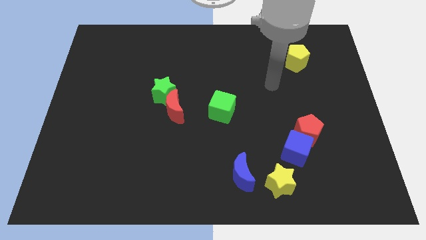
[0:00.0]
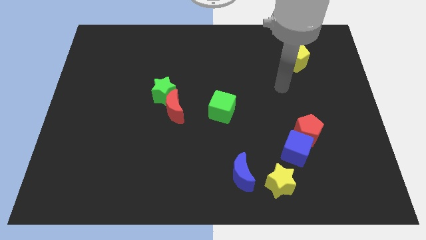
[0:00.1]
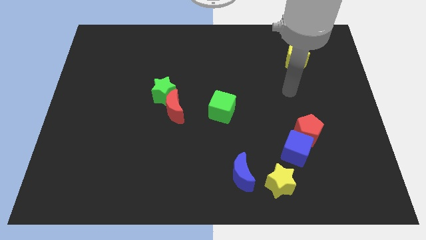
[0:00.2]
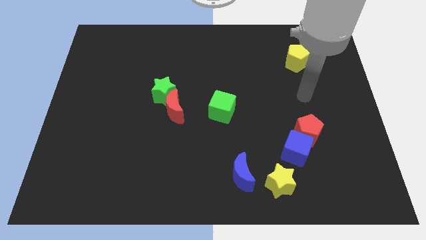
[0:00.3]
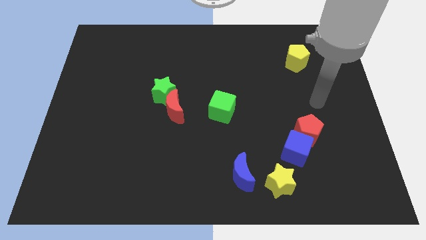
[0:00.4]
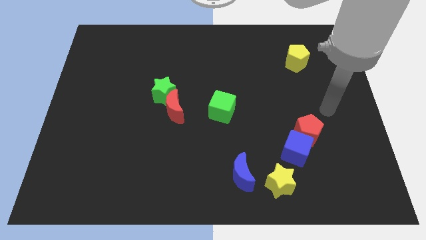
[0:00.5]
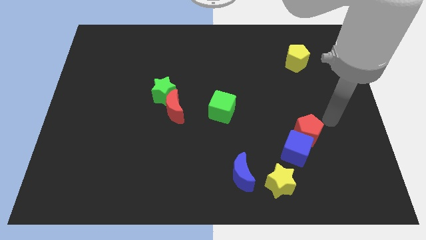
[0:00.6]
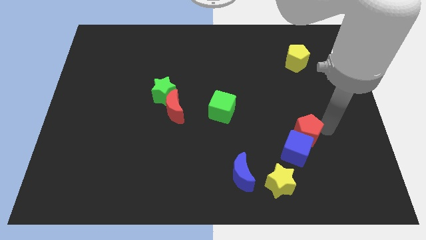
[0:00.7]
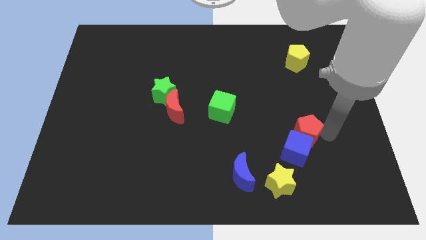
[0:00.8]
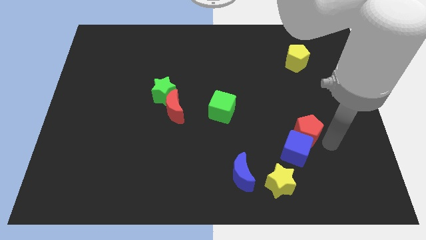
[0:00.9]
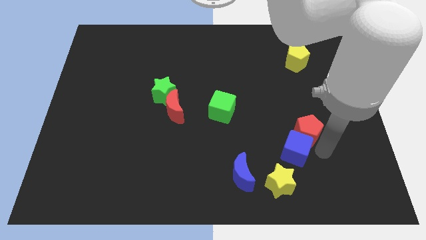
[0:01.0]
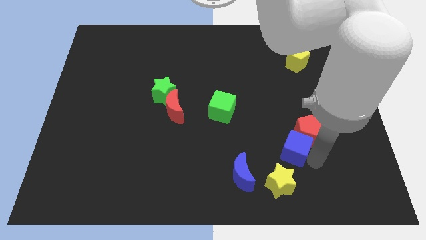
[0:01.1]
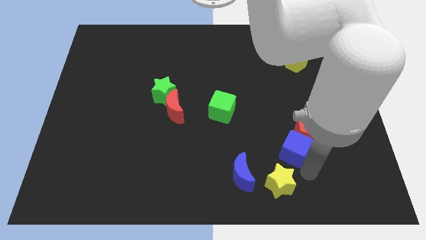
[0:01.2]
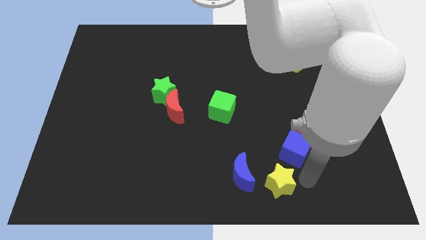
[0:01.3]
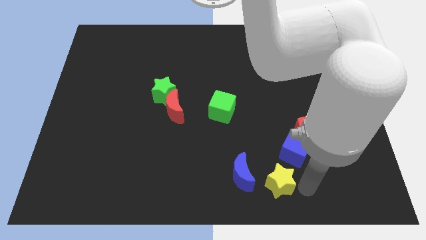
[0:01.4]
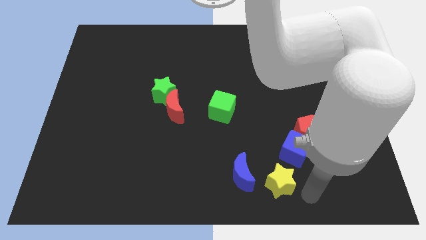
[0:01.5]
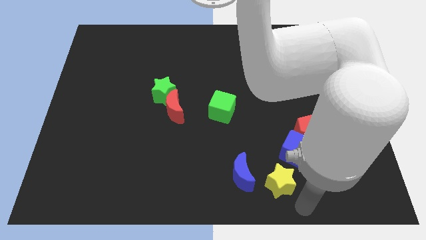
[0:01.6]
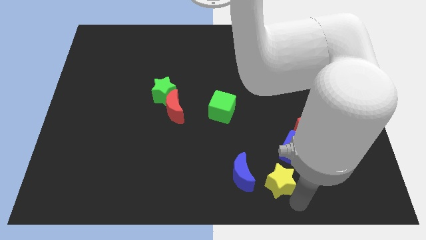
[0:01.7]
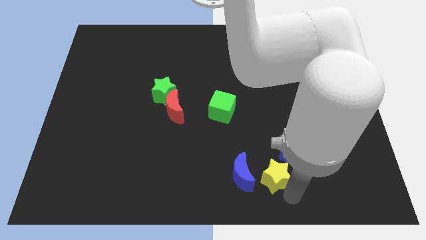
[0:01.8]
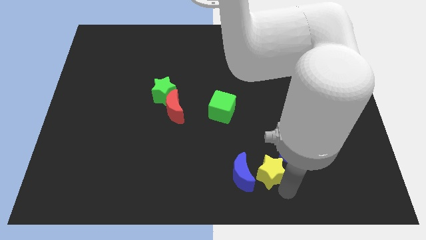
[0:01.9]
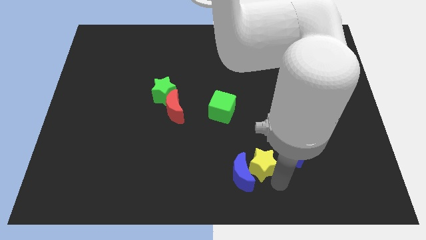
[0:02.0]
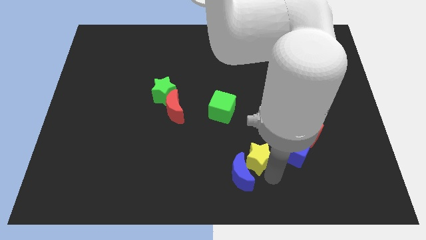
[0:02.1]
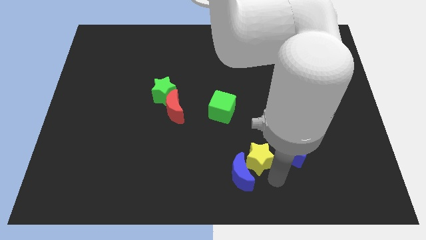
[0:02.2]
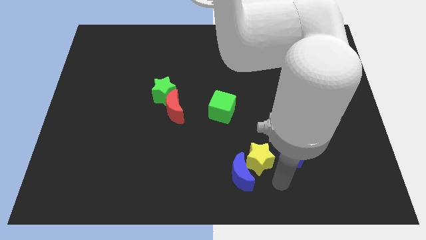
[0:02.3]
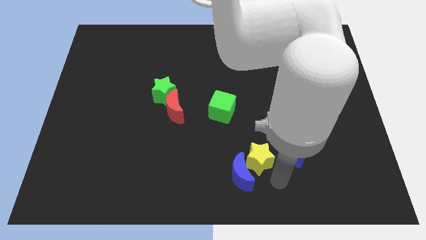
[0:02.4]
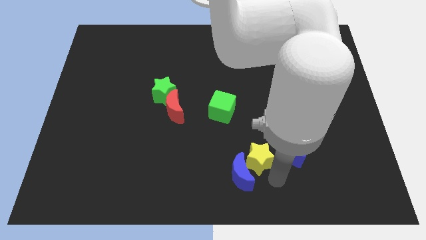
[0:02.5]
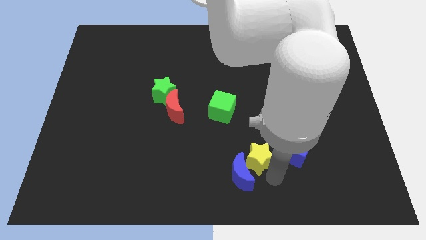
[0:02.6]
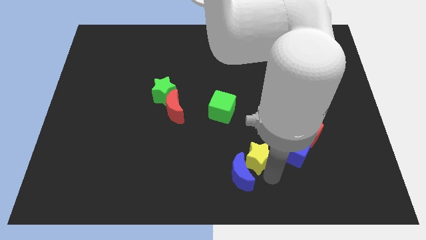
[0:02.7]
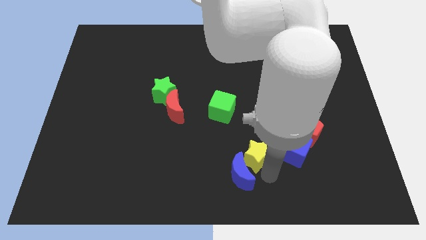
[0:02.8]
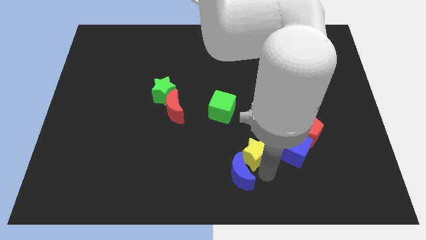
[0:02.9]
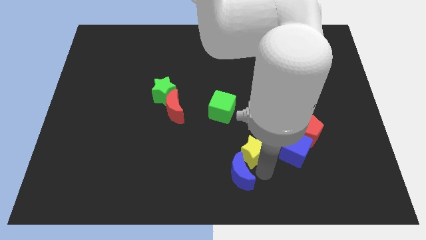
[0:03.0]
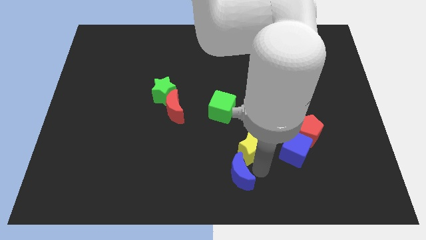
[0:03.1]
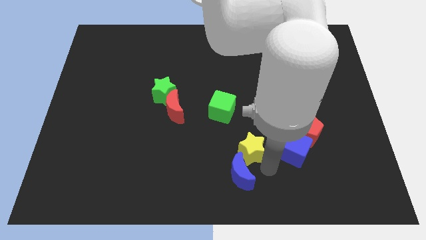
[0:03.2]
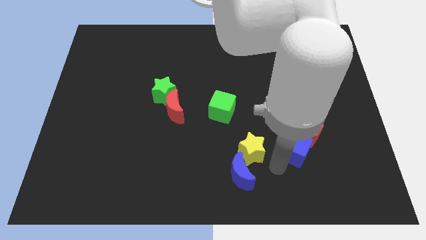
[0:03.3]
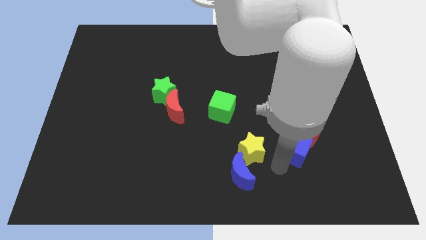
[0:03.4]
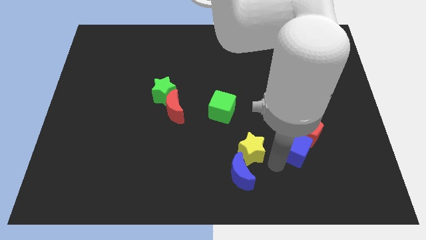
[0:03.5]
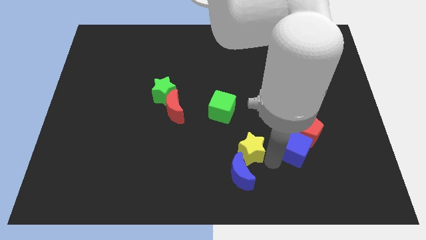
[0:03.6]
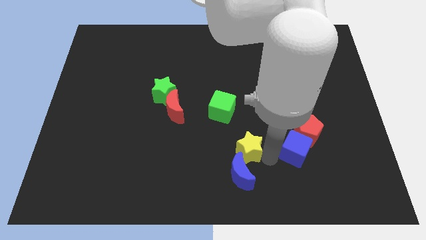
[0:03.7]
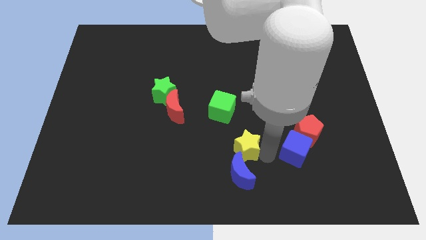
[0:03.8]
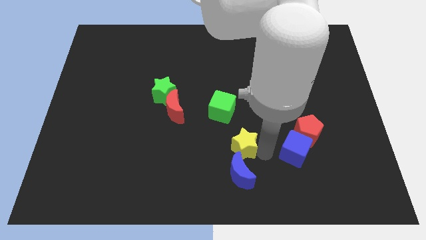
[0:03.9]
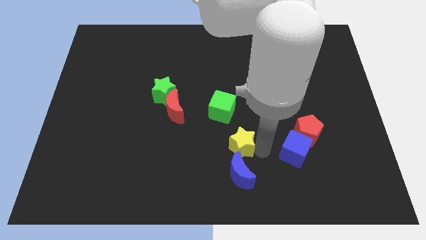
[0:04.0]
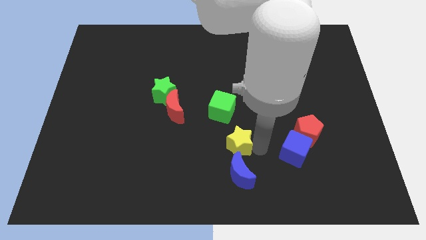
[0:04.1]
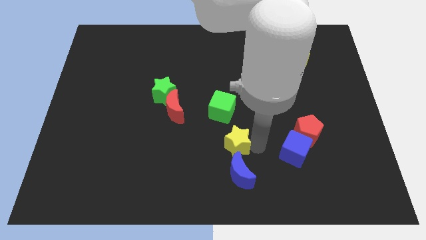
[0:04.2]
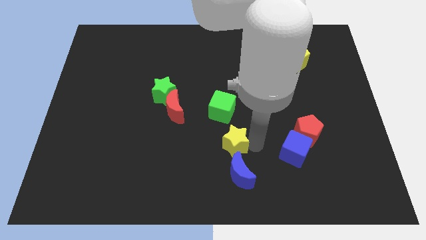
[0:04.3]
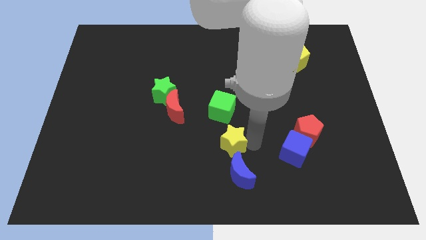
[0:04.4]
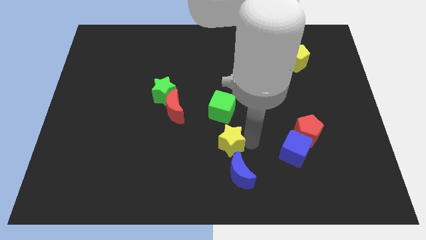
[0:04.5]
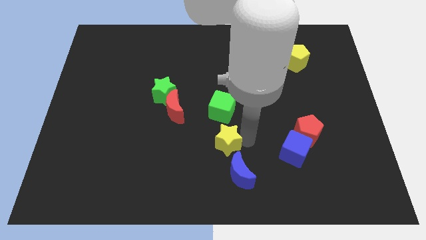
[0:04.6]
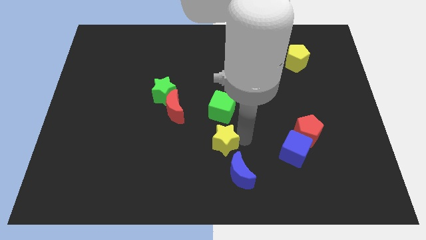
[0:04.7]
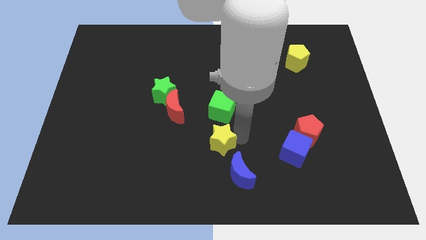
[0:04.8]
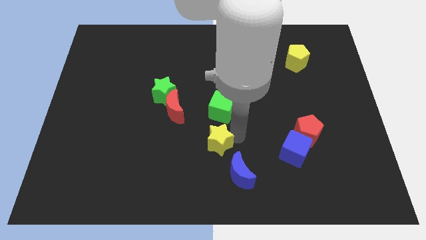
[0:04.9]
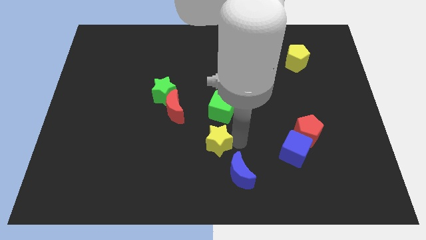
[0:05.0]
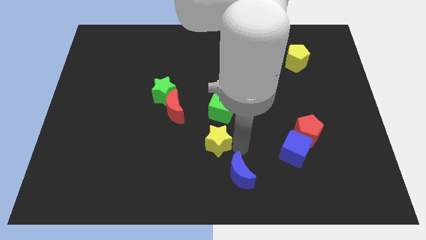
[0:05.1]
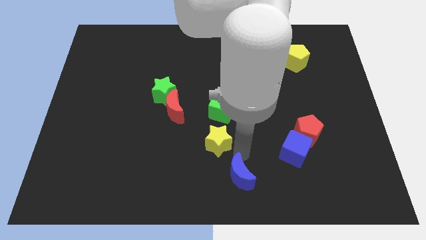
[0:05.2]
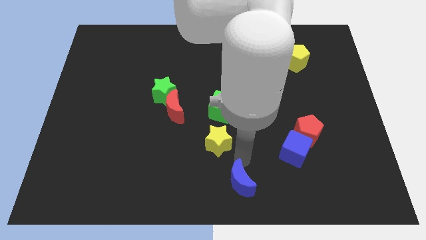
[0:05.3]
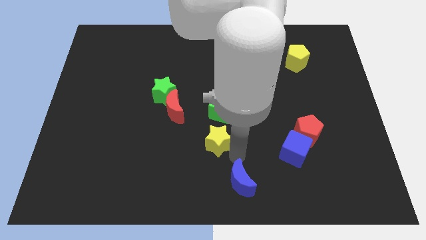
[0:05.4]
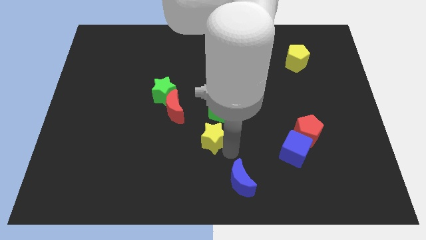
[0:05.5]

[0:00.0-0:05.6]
move the yellow star to the bottom left side of the green cube

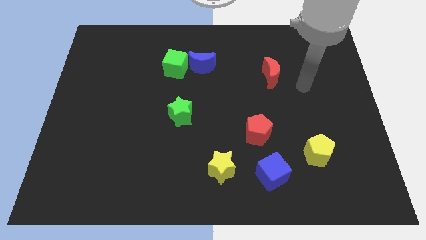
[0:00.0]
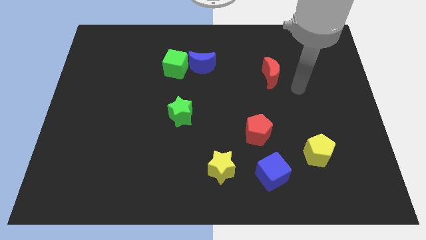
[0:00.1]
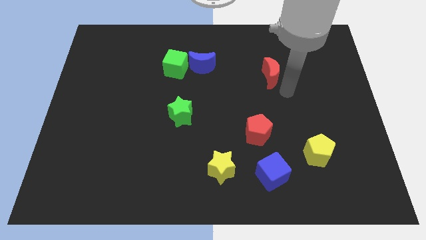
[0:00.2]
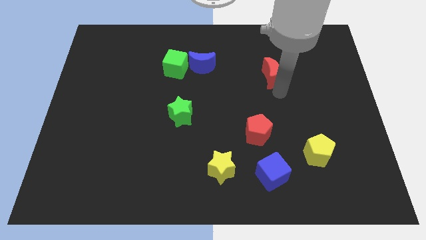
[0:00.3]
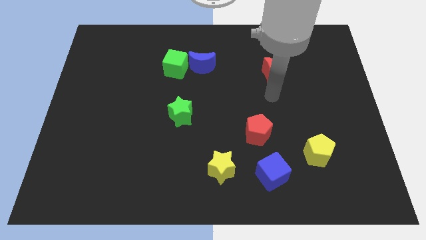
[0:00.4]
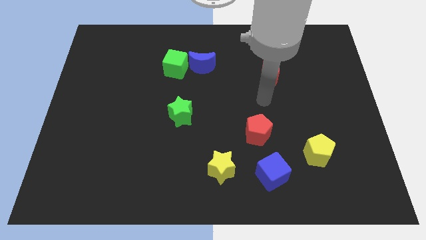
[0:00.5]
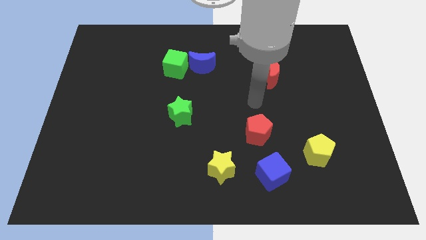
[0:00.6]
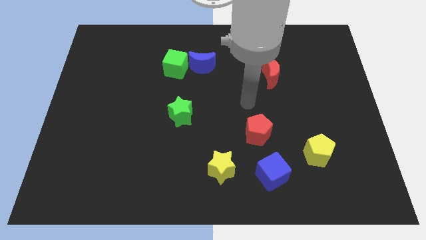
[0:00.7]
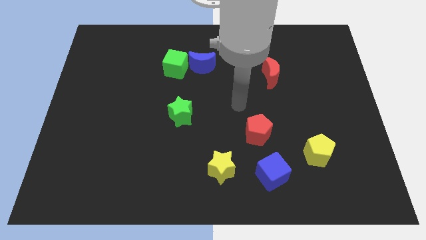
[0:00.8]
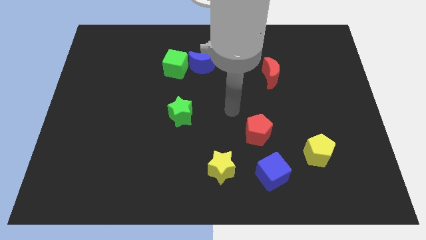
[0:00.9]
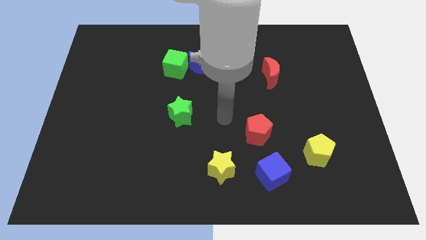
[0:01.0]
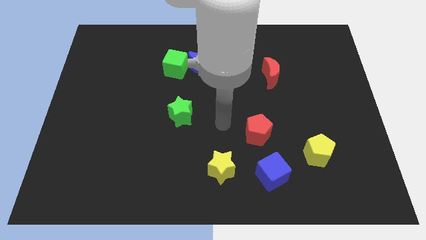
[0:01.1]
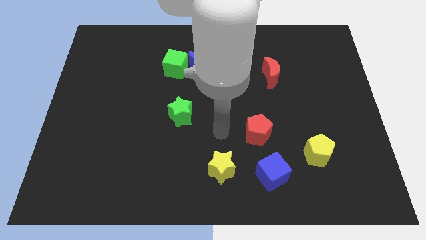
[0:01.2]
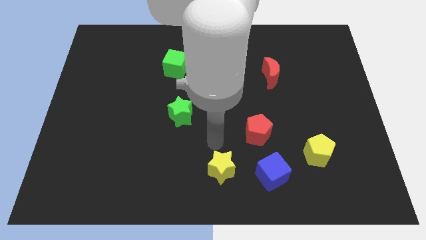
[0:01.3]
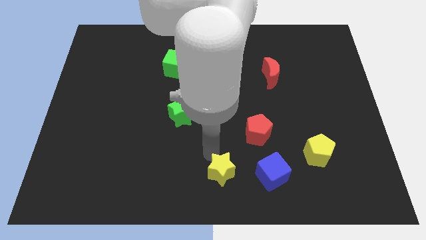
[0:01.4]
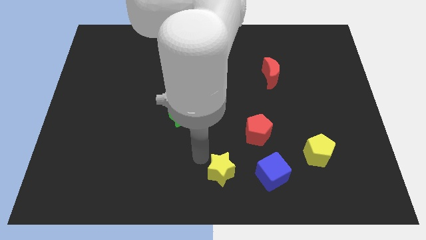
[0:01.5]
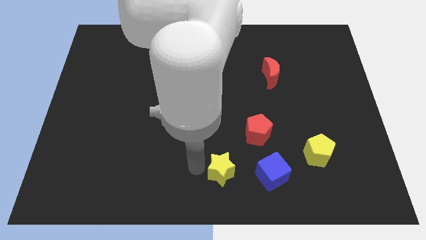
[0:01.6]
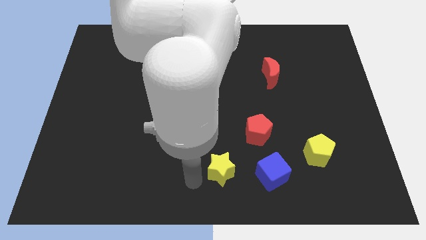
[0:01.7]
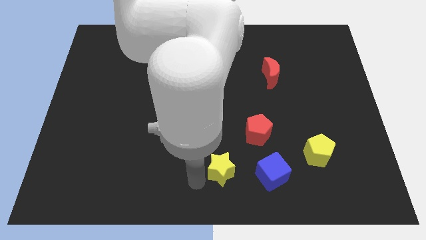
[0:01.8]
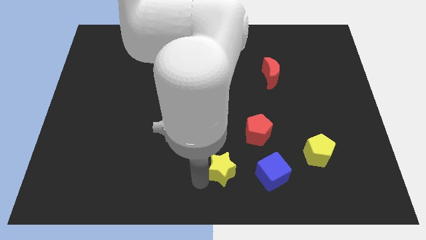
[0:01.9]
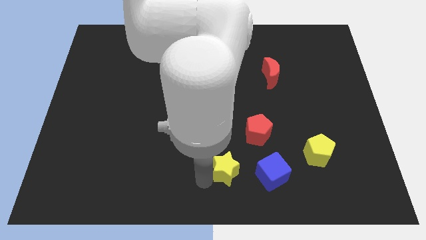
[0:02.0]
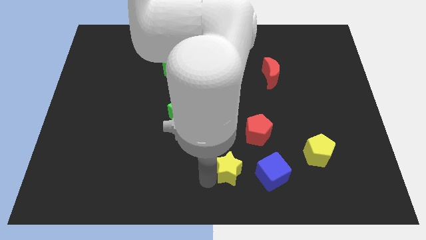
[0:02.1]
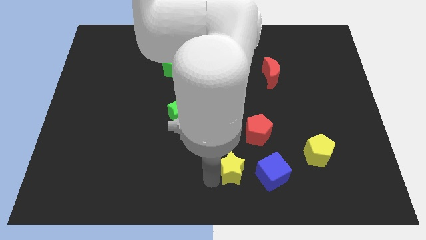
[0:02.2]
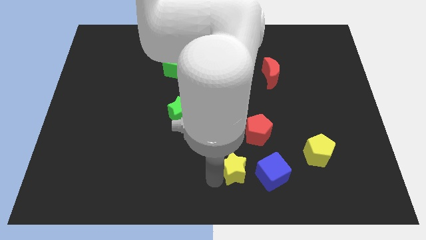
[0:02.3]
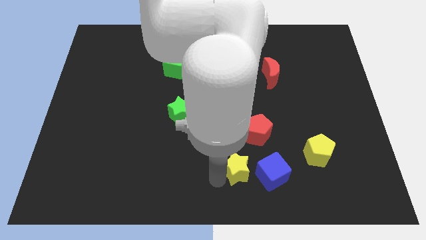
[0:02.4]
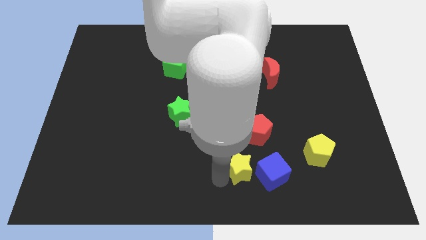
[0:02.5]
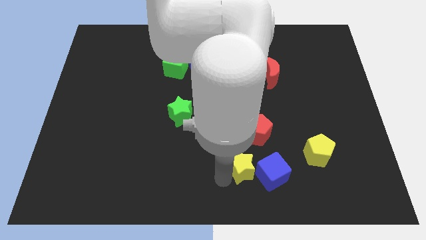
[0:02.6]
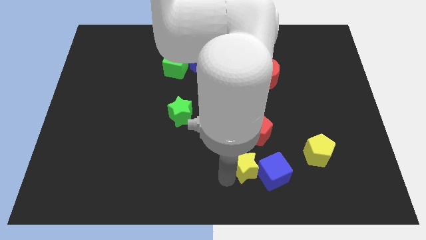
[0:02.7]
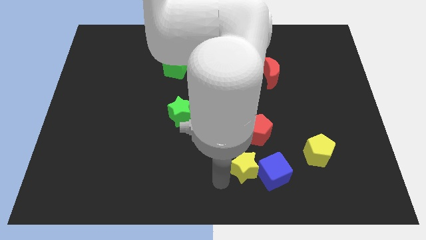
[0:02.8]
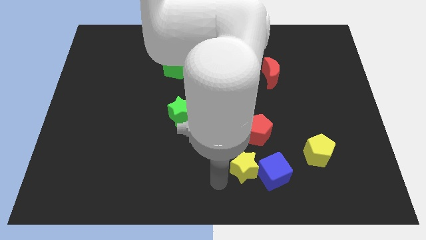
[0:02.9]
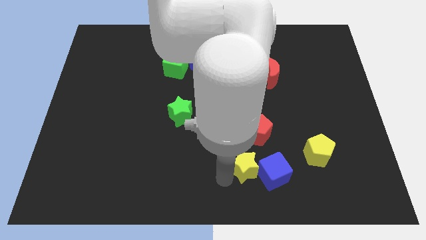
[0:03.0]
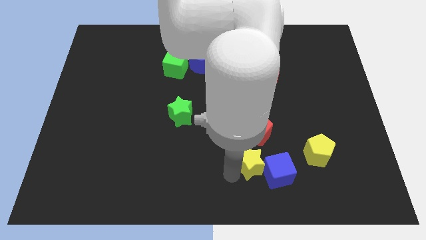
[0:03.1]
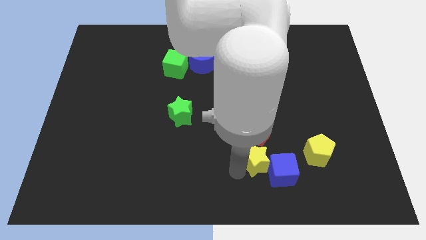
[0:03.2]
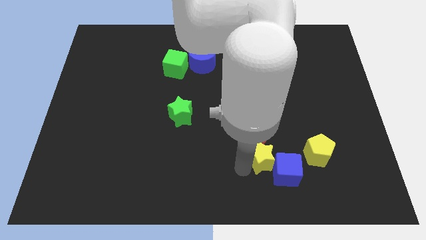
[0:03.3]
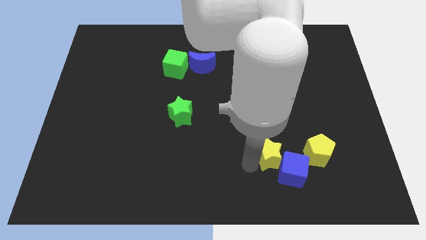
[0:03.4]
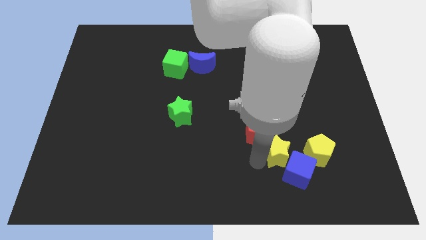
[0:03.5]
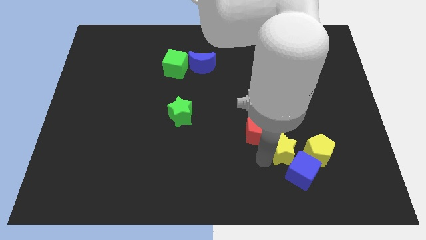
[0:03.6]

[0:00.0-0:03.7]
put the yellow star right of the red pentagon
